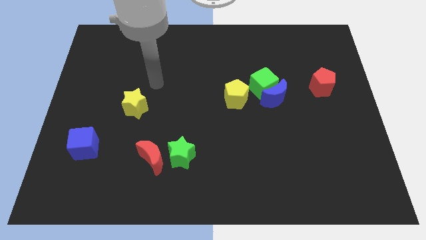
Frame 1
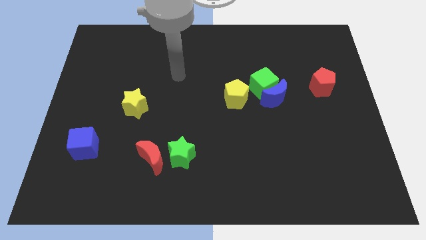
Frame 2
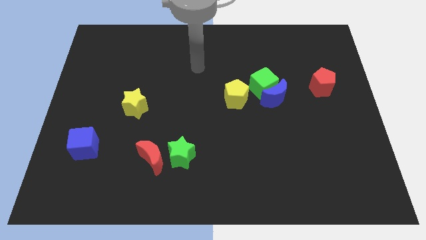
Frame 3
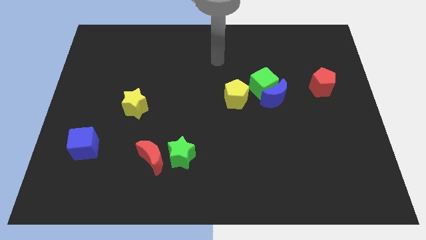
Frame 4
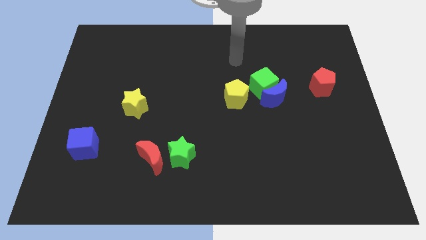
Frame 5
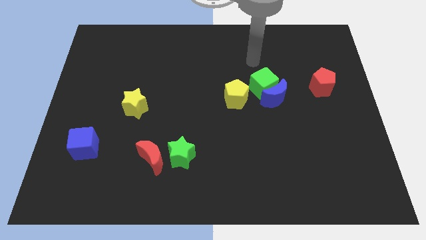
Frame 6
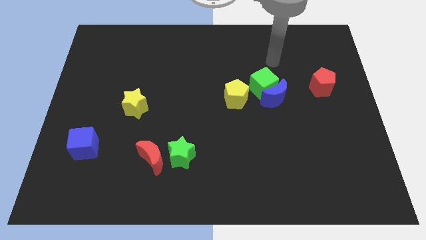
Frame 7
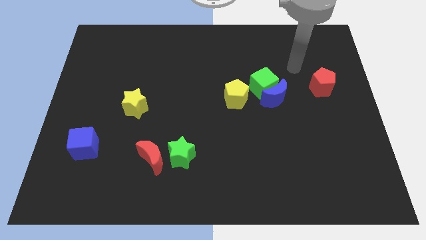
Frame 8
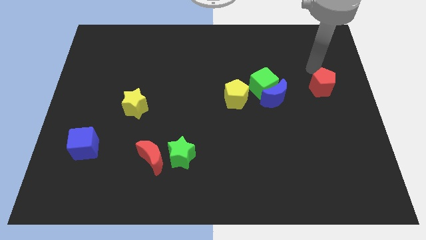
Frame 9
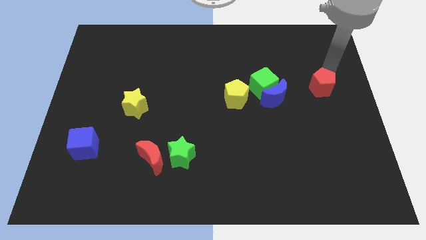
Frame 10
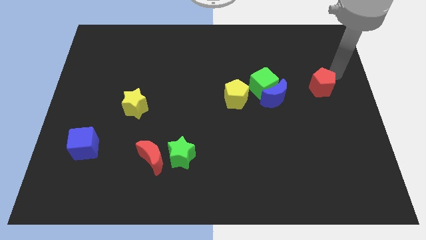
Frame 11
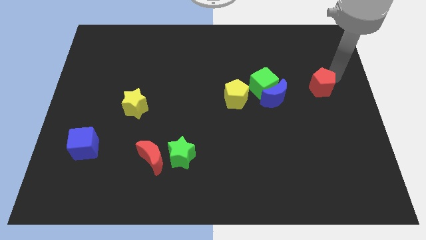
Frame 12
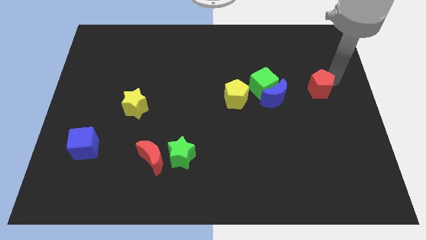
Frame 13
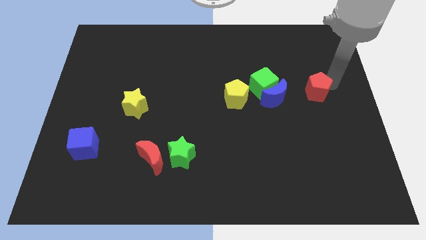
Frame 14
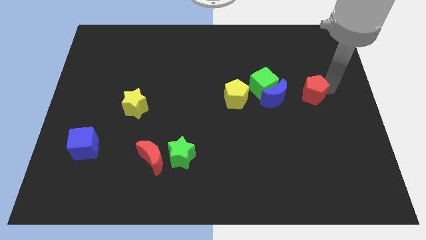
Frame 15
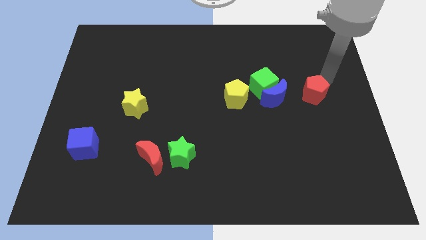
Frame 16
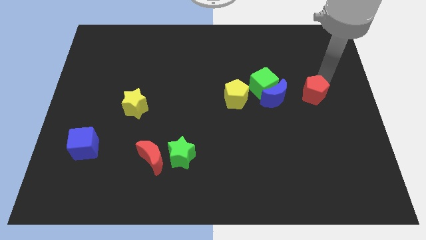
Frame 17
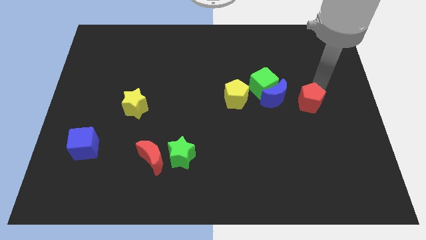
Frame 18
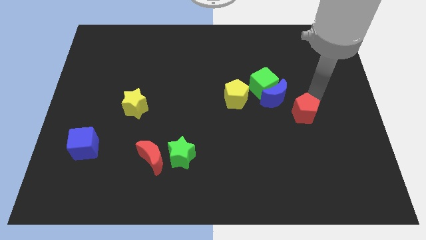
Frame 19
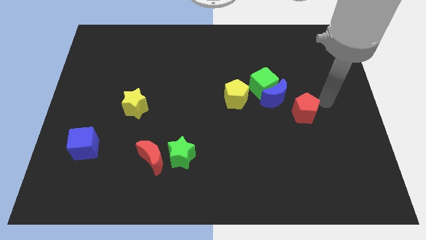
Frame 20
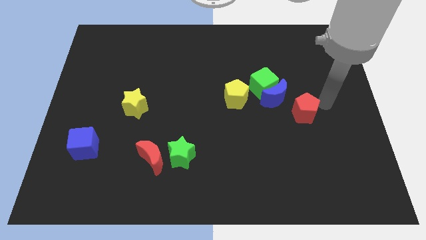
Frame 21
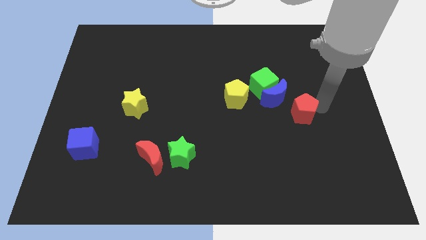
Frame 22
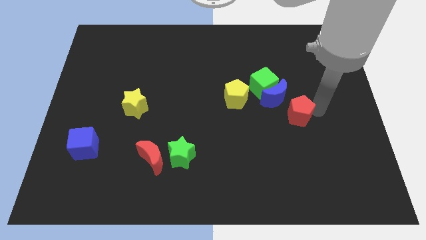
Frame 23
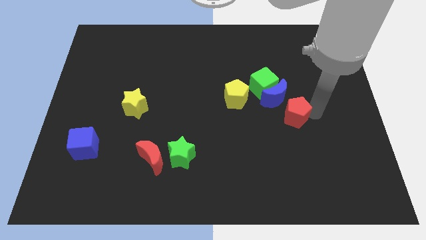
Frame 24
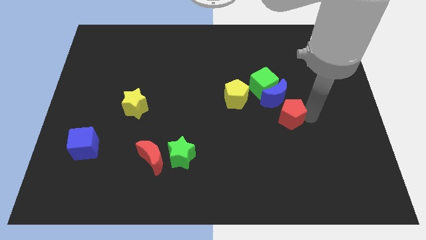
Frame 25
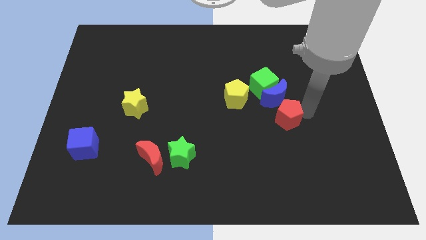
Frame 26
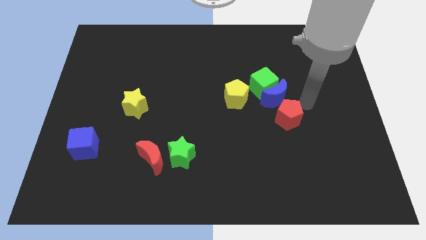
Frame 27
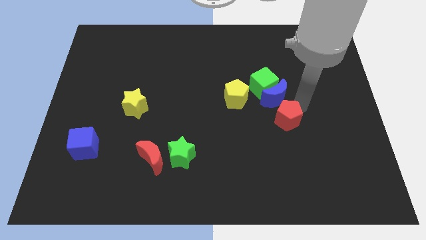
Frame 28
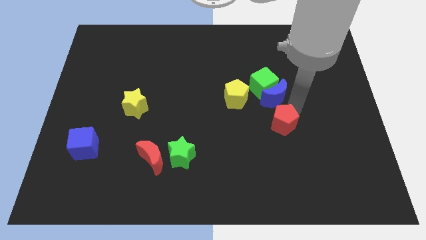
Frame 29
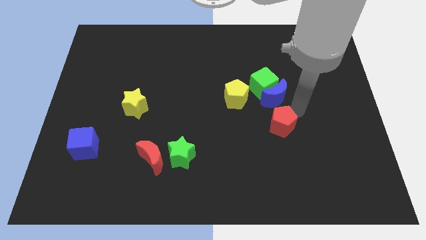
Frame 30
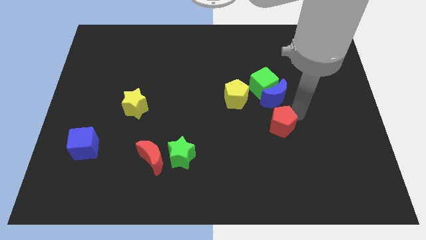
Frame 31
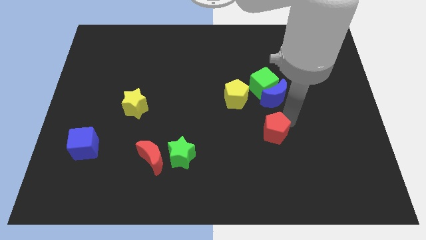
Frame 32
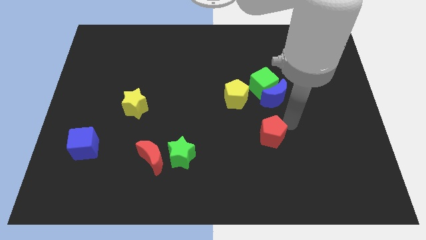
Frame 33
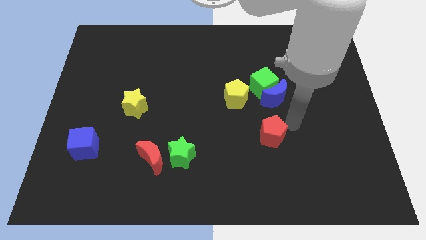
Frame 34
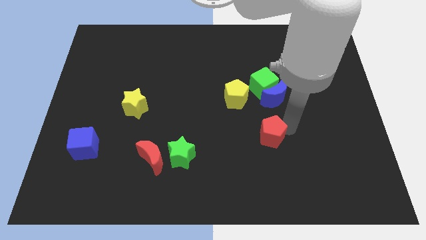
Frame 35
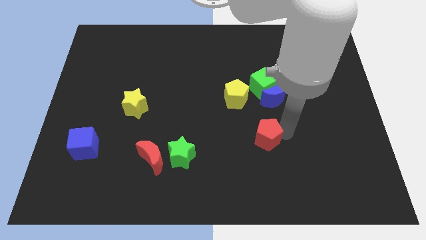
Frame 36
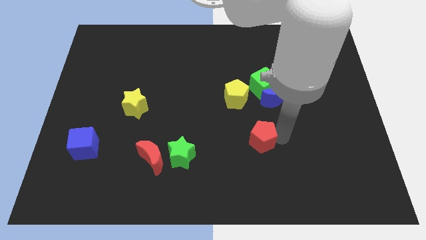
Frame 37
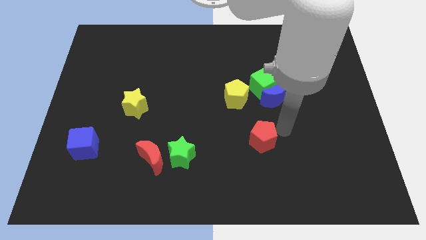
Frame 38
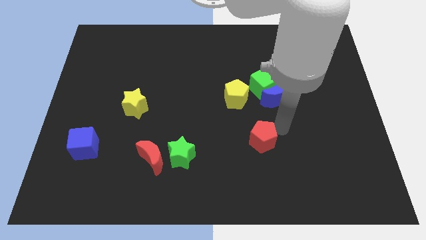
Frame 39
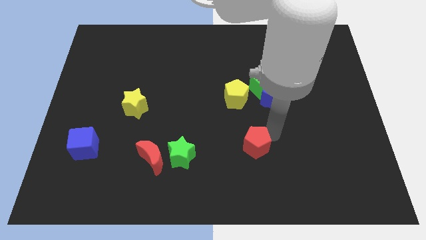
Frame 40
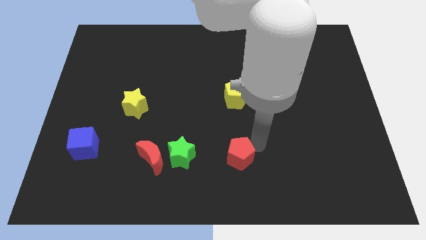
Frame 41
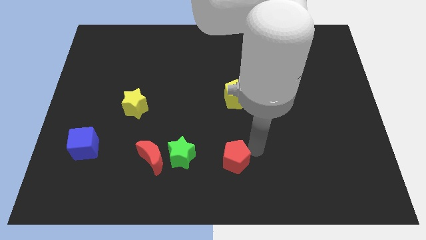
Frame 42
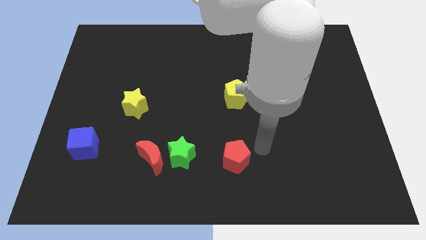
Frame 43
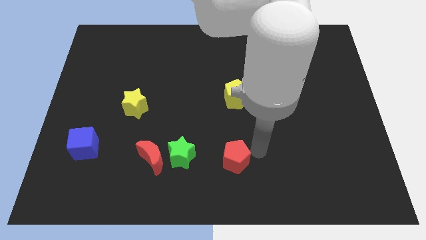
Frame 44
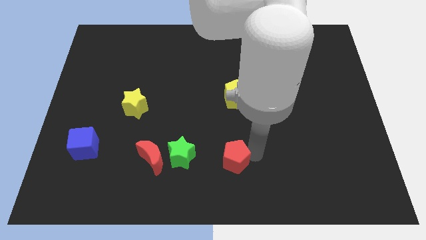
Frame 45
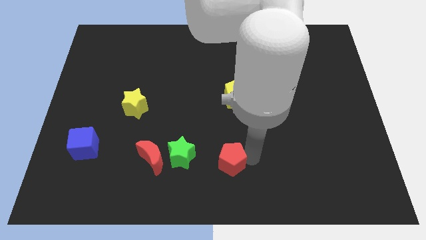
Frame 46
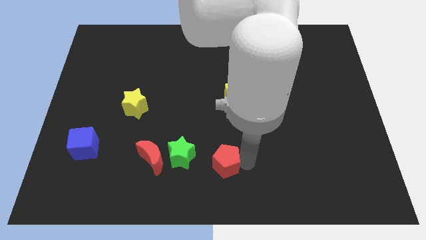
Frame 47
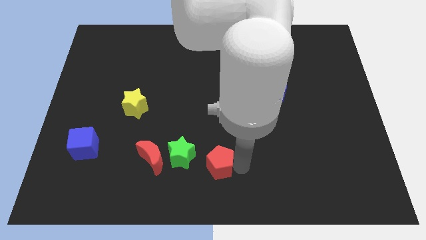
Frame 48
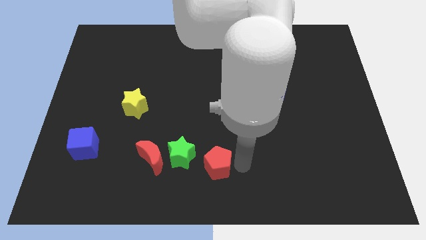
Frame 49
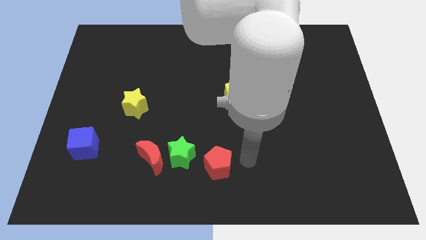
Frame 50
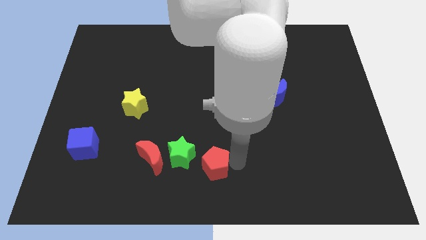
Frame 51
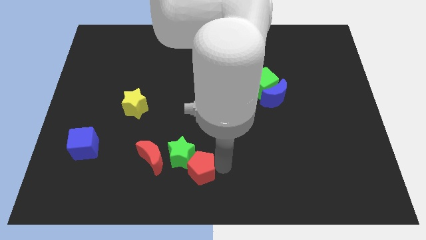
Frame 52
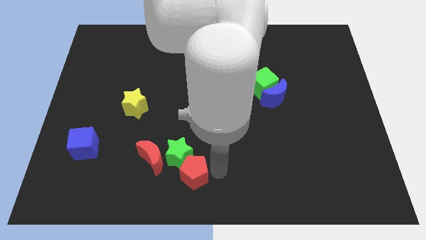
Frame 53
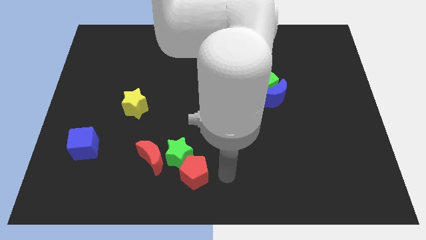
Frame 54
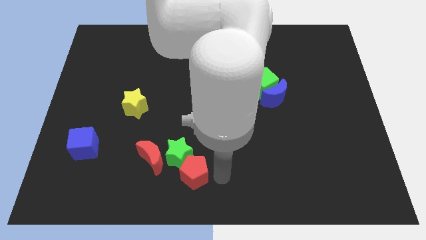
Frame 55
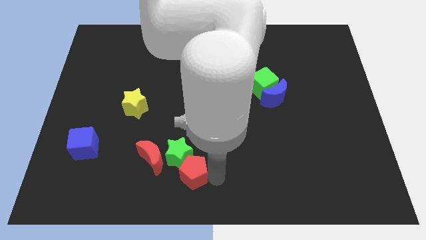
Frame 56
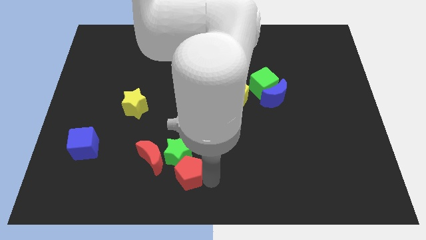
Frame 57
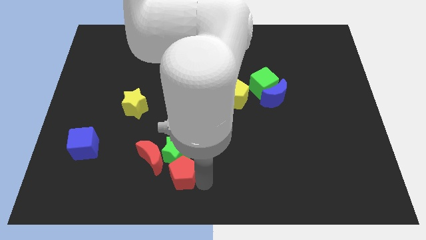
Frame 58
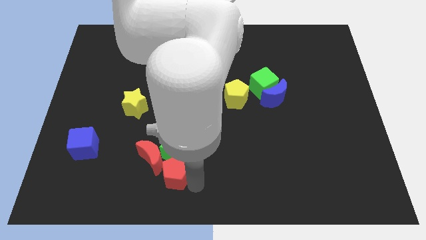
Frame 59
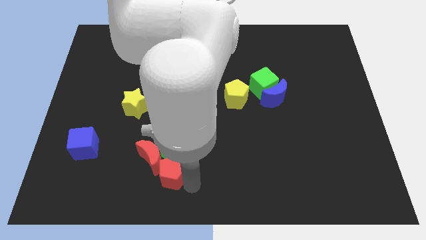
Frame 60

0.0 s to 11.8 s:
slide the red pentagon to the red moon

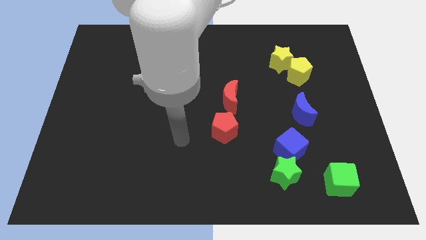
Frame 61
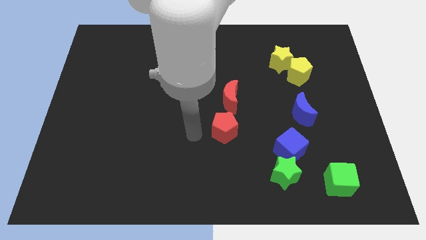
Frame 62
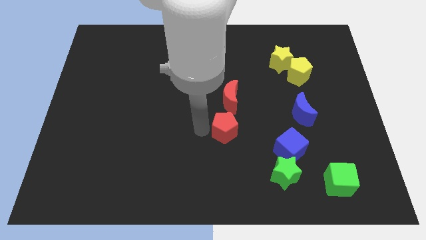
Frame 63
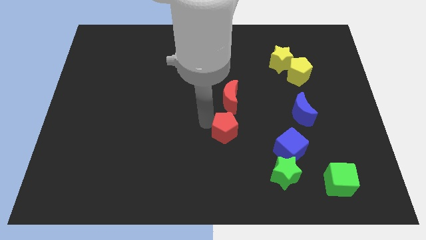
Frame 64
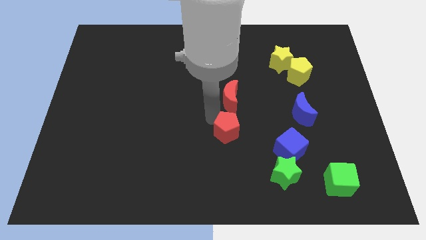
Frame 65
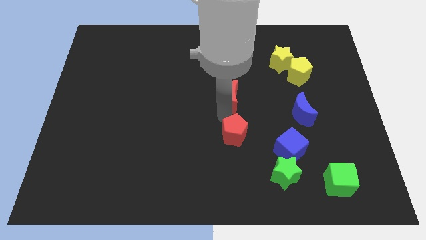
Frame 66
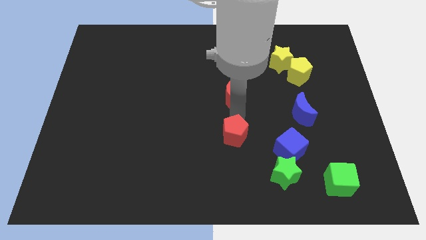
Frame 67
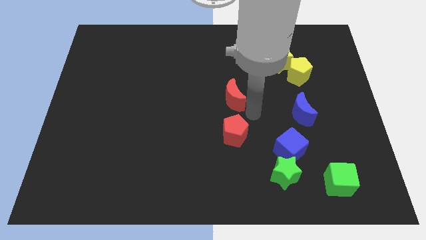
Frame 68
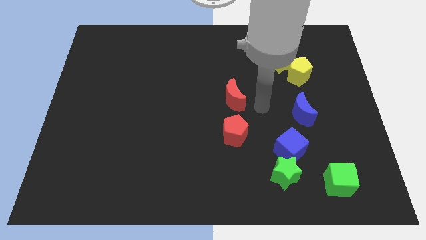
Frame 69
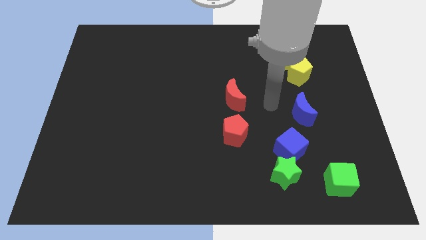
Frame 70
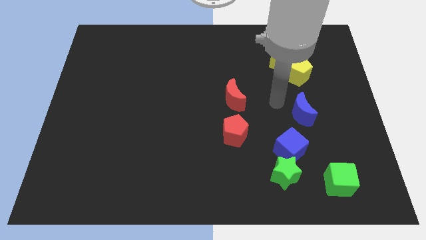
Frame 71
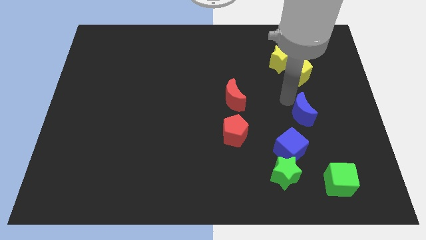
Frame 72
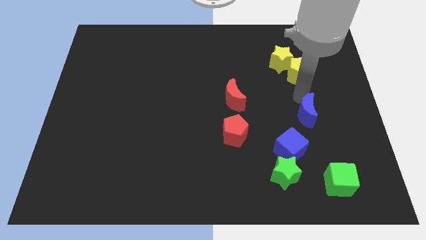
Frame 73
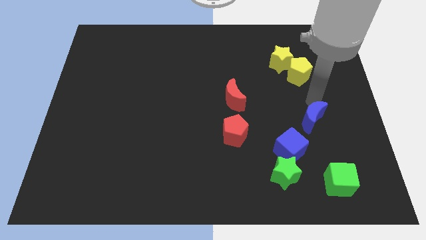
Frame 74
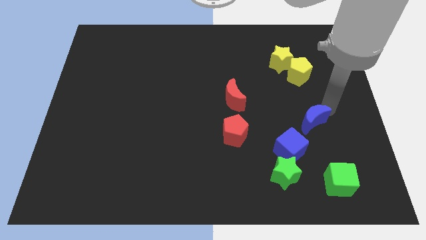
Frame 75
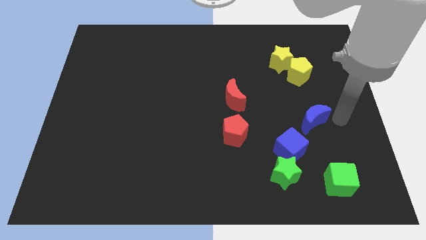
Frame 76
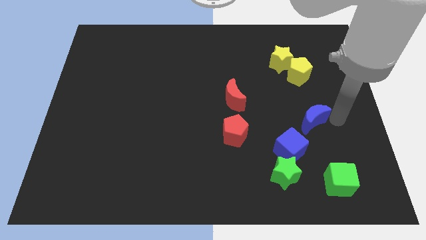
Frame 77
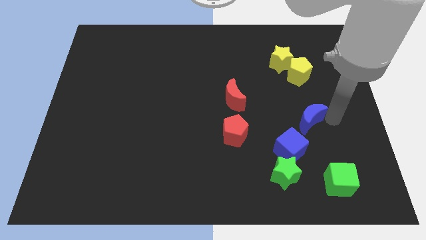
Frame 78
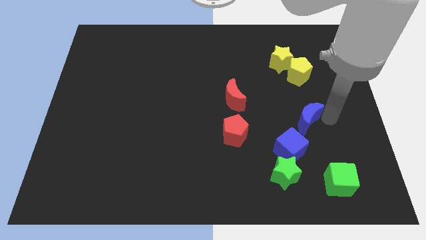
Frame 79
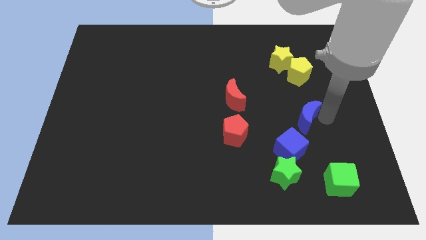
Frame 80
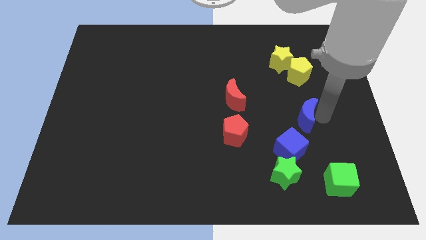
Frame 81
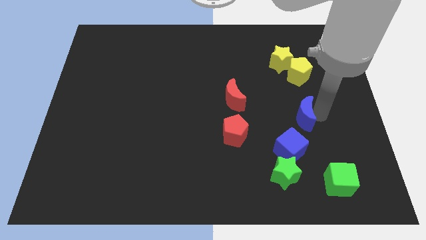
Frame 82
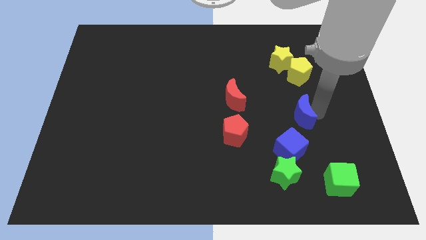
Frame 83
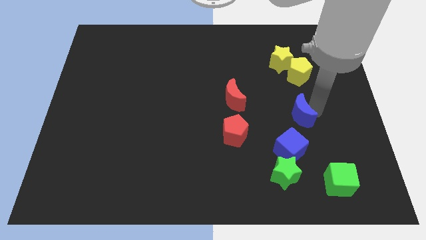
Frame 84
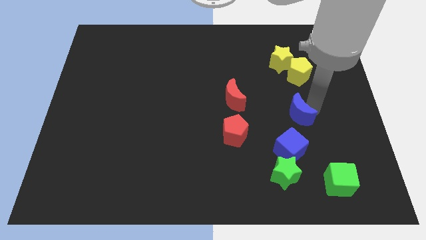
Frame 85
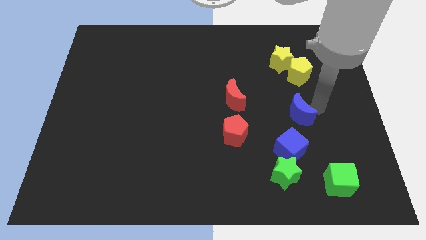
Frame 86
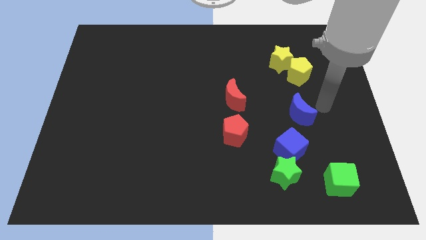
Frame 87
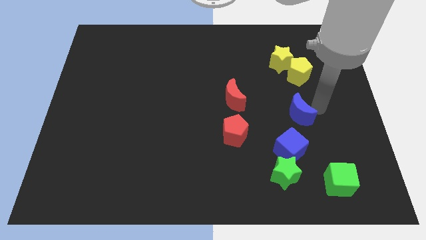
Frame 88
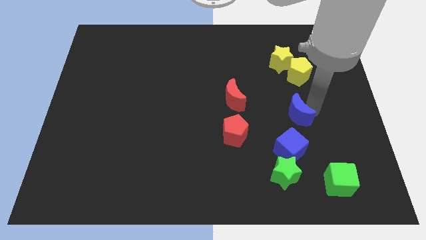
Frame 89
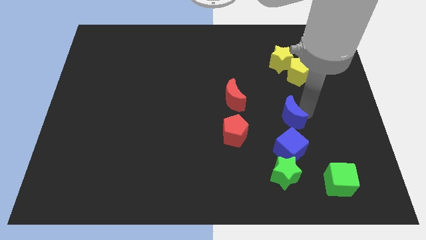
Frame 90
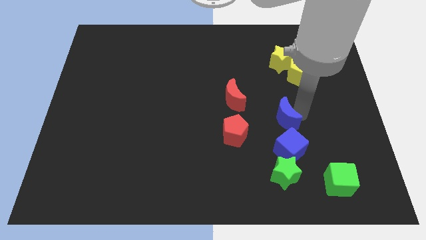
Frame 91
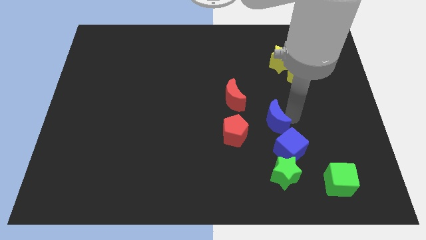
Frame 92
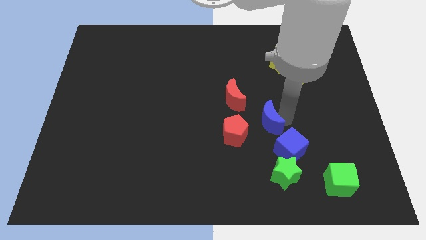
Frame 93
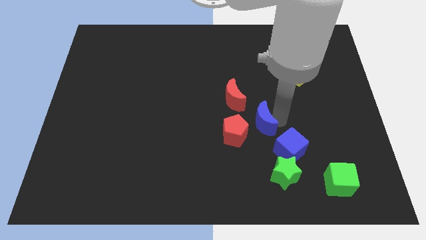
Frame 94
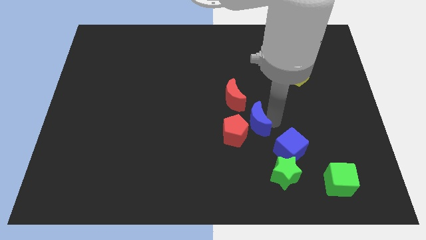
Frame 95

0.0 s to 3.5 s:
push the blue moon next to the red pentagon
